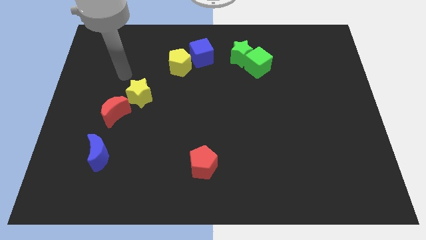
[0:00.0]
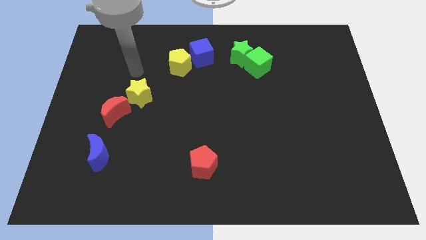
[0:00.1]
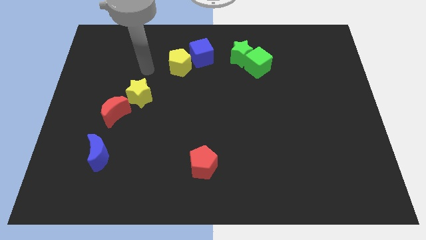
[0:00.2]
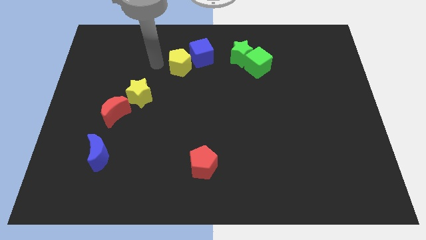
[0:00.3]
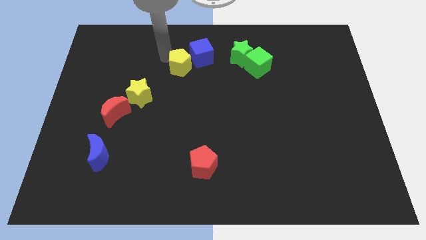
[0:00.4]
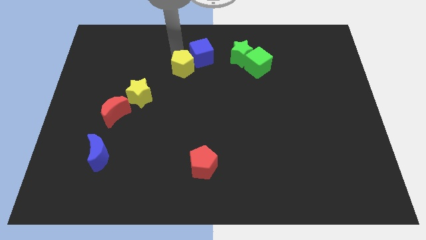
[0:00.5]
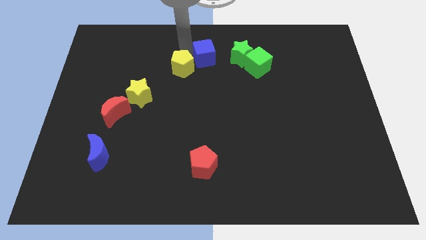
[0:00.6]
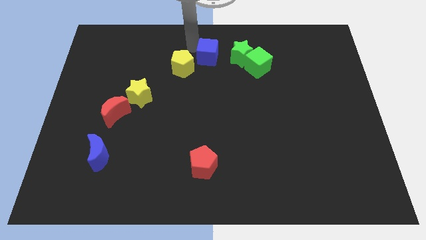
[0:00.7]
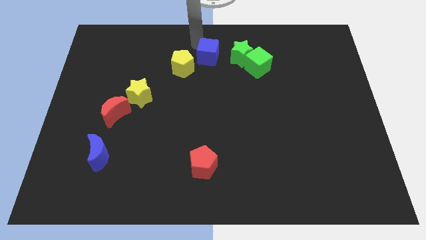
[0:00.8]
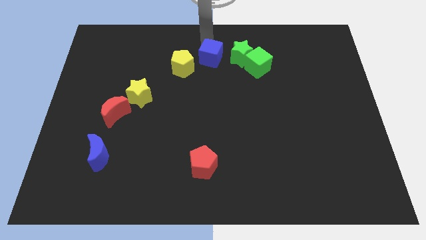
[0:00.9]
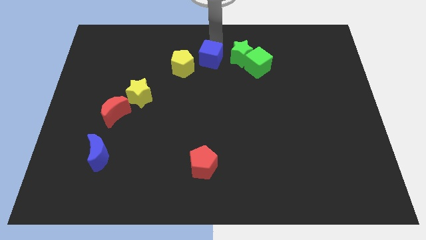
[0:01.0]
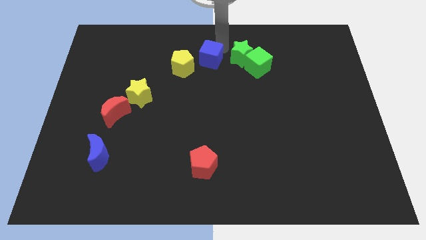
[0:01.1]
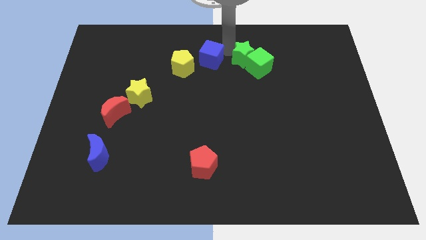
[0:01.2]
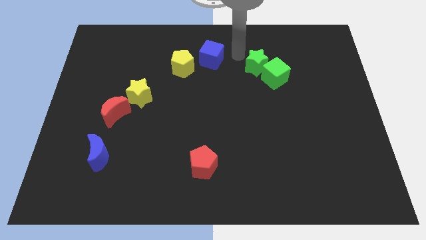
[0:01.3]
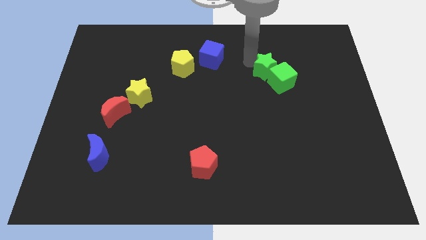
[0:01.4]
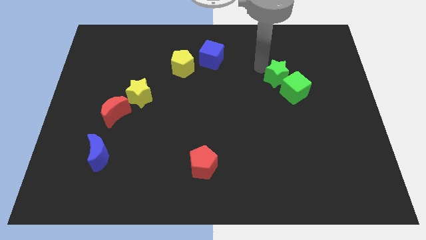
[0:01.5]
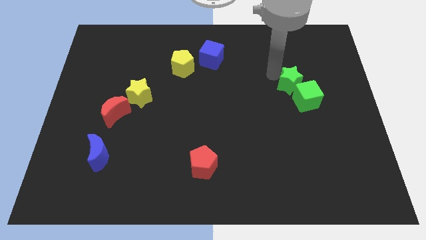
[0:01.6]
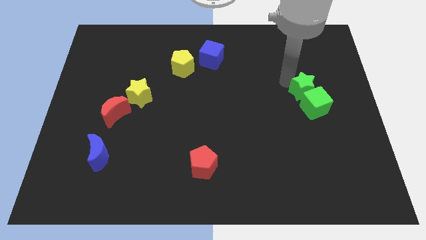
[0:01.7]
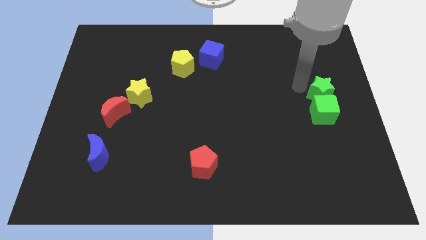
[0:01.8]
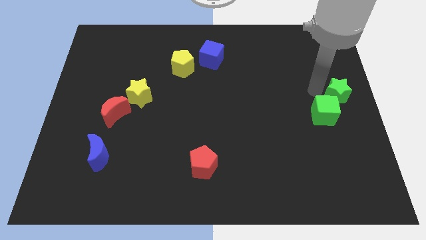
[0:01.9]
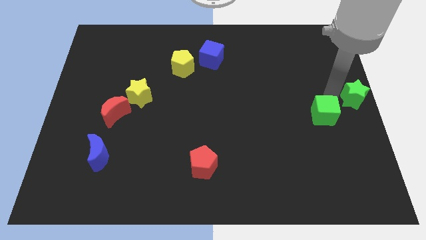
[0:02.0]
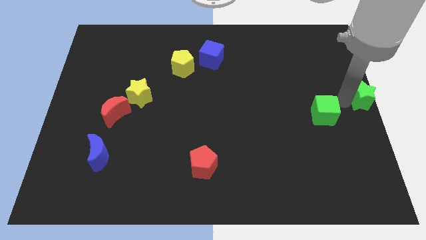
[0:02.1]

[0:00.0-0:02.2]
move the green cube away from the green star

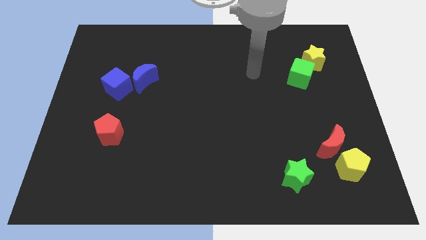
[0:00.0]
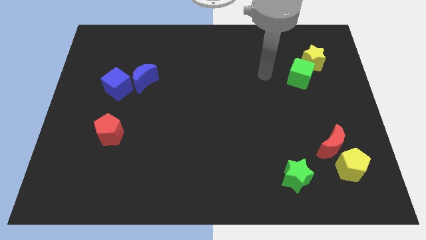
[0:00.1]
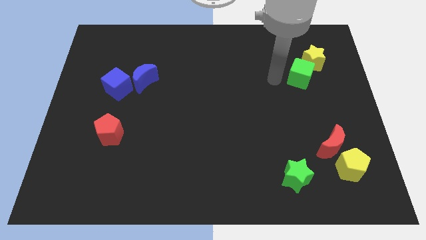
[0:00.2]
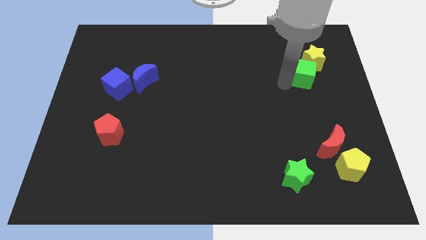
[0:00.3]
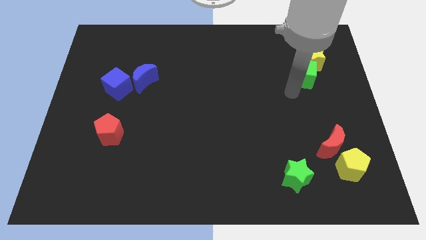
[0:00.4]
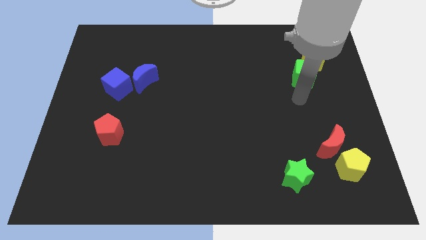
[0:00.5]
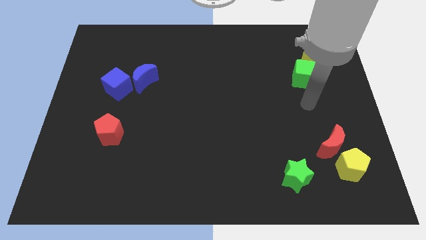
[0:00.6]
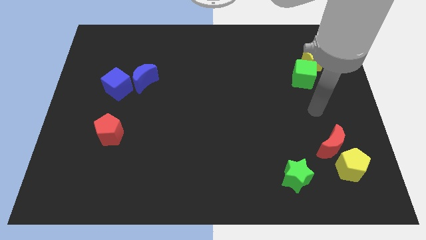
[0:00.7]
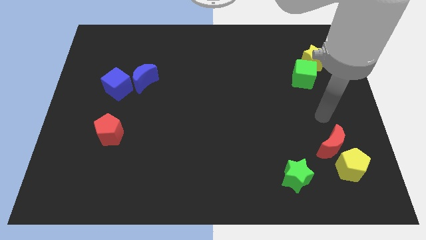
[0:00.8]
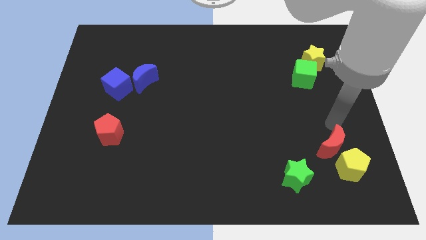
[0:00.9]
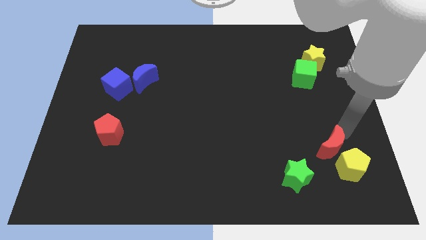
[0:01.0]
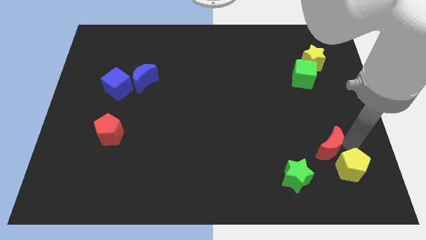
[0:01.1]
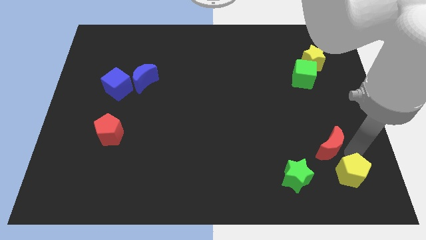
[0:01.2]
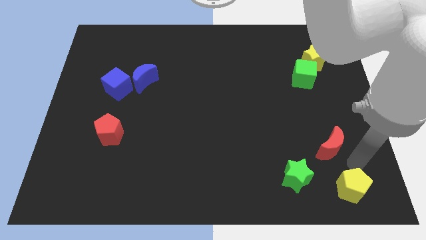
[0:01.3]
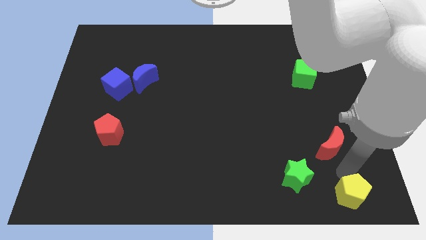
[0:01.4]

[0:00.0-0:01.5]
separate the red moon from the yellow pentagon

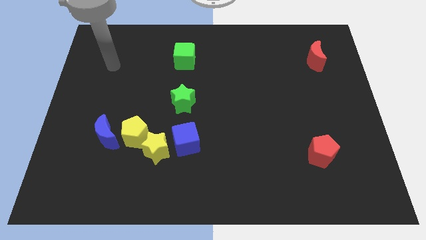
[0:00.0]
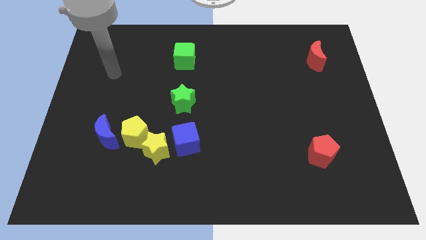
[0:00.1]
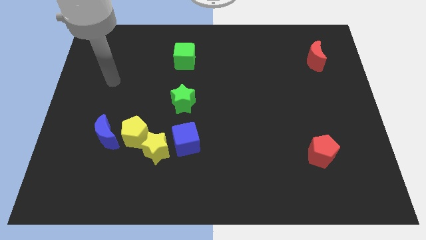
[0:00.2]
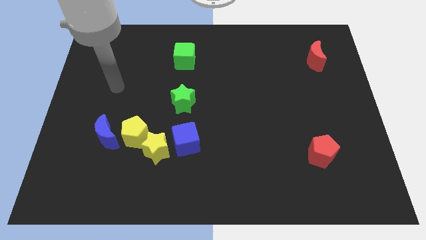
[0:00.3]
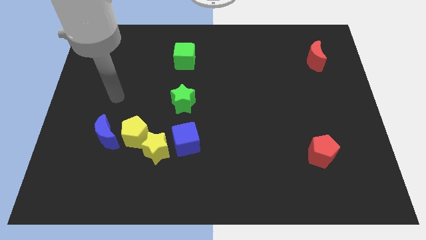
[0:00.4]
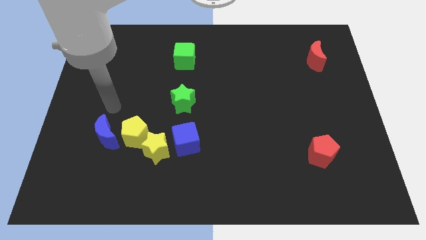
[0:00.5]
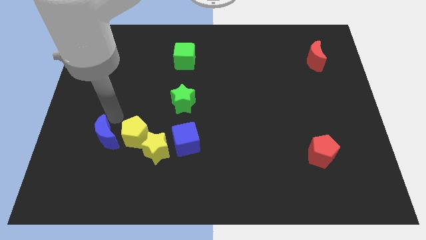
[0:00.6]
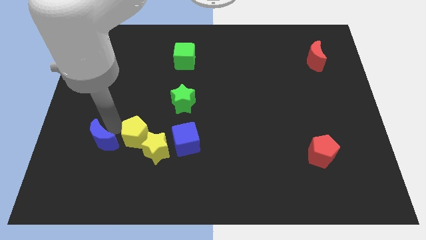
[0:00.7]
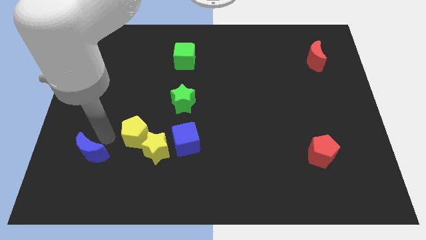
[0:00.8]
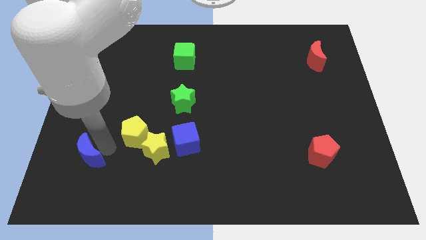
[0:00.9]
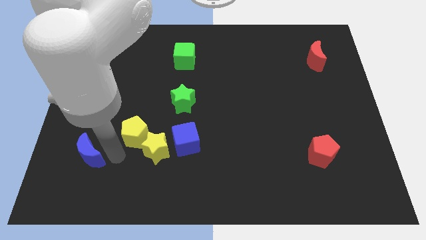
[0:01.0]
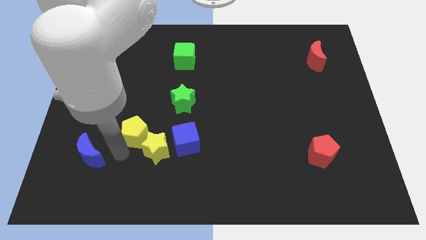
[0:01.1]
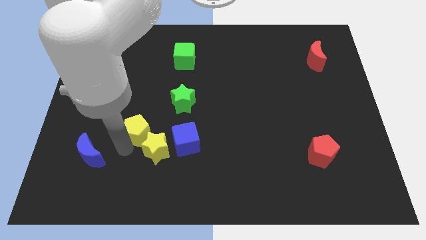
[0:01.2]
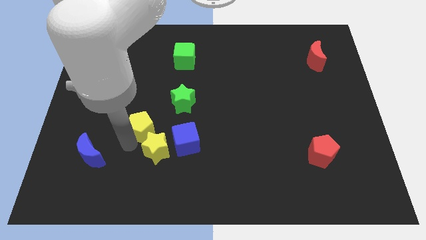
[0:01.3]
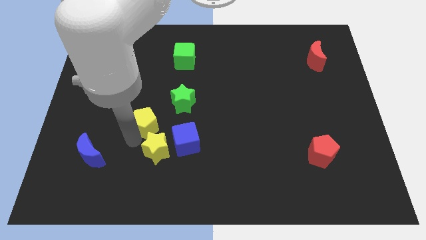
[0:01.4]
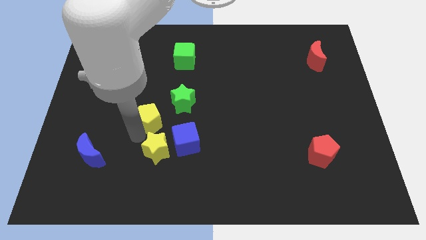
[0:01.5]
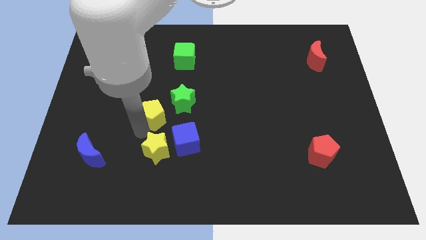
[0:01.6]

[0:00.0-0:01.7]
separate the yellow pentagon from the yellow star and blue moon

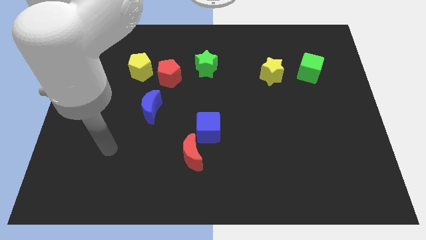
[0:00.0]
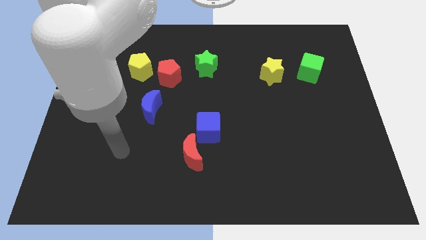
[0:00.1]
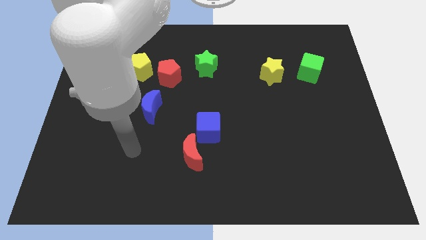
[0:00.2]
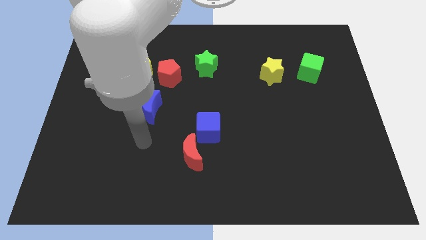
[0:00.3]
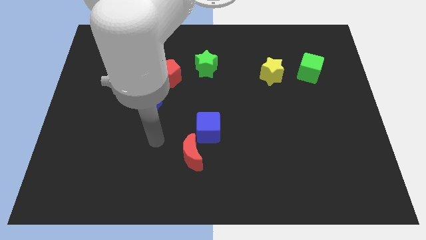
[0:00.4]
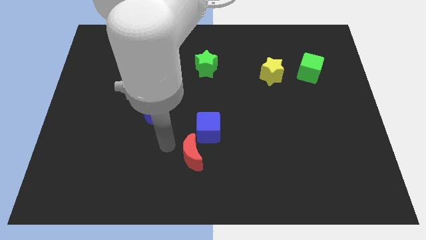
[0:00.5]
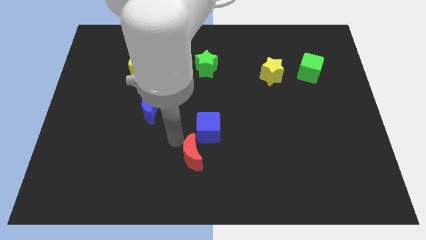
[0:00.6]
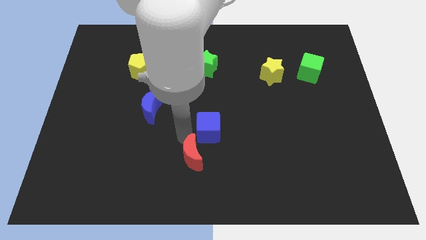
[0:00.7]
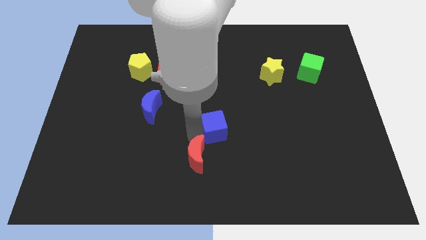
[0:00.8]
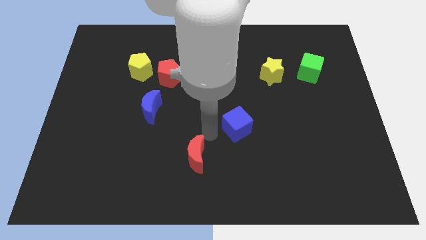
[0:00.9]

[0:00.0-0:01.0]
pull the red moon apart from the blue cube

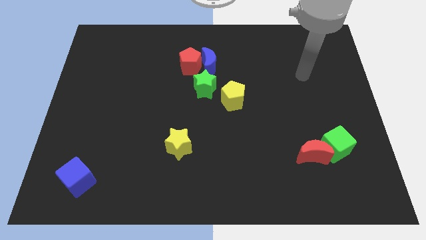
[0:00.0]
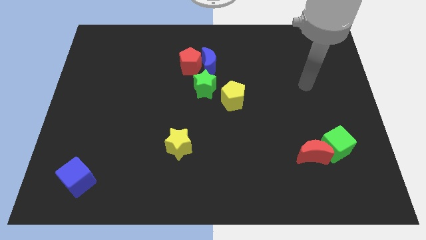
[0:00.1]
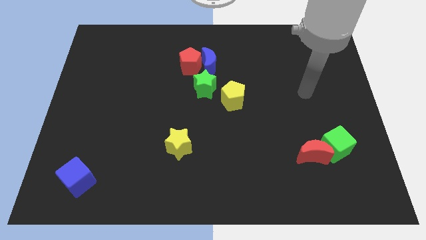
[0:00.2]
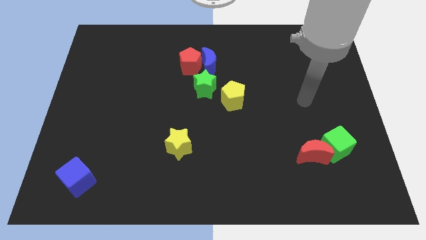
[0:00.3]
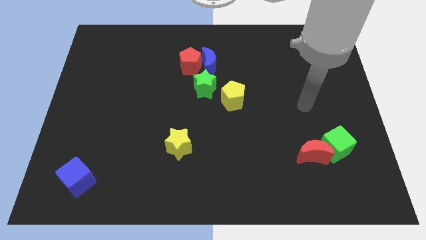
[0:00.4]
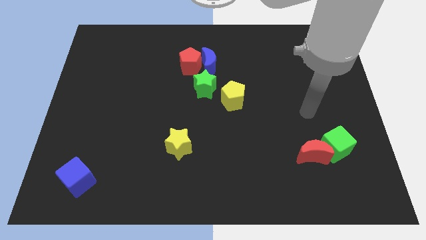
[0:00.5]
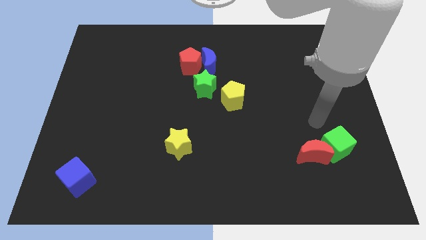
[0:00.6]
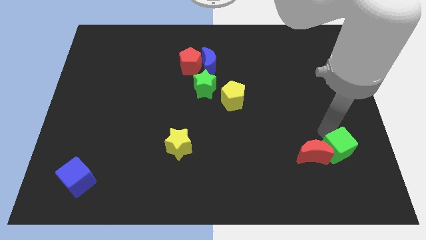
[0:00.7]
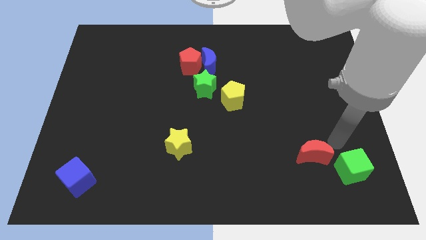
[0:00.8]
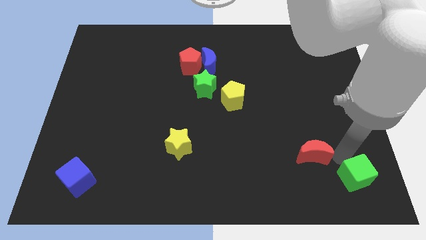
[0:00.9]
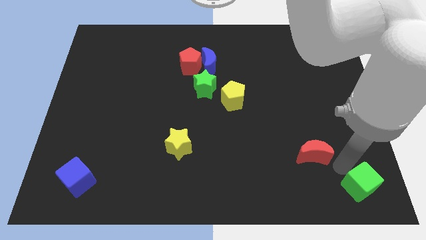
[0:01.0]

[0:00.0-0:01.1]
pull the red moon apart from the green cube

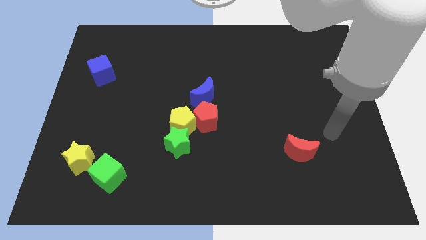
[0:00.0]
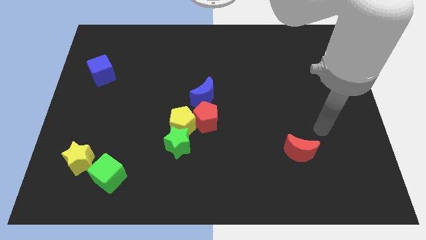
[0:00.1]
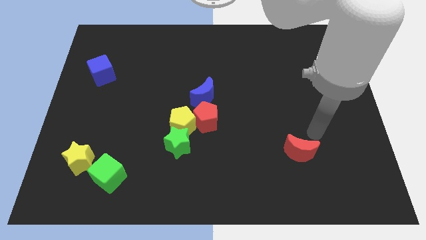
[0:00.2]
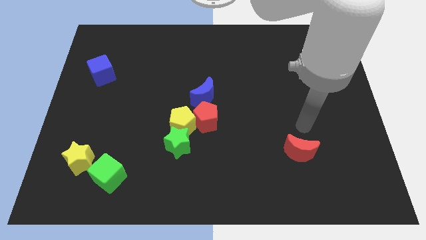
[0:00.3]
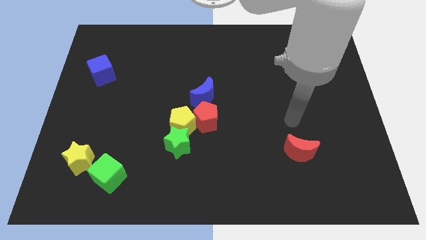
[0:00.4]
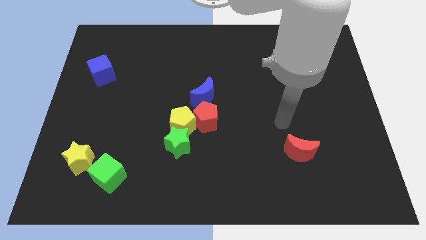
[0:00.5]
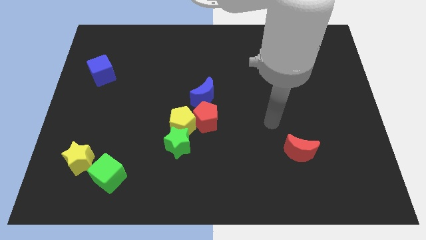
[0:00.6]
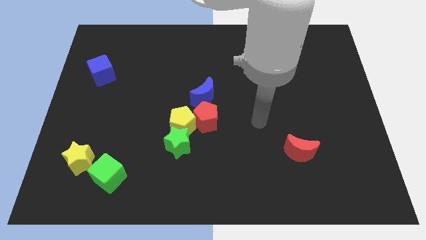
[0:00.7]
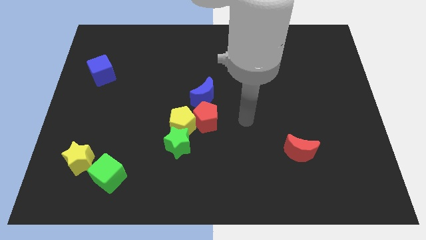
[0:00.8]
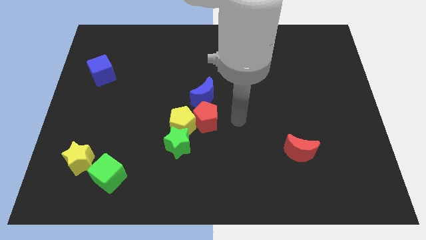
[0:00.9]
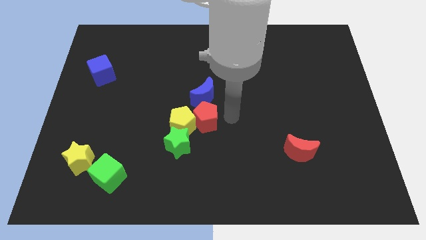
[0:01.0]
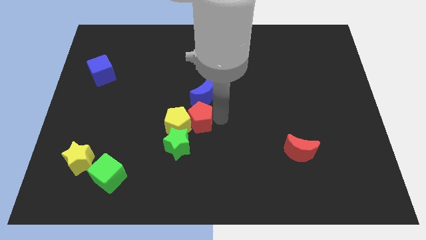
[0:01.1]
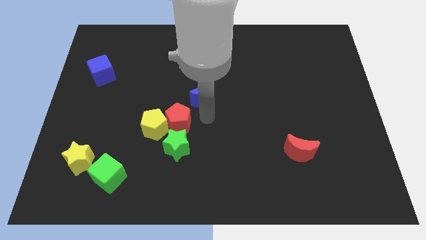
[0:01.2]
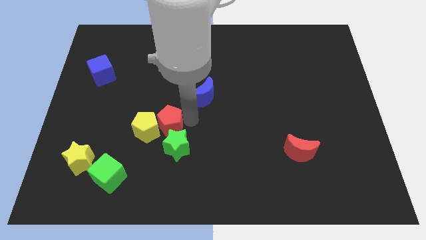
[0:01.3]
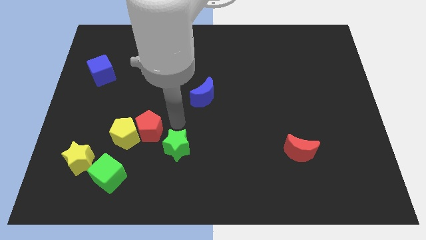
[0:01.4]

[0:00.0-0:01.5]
move the yellow pentagon away from the red pentagon, green star, and blue moon
